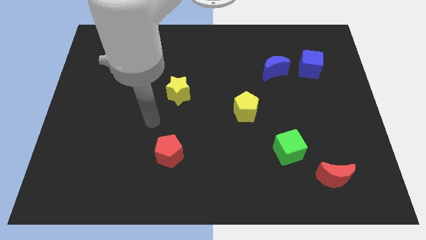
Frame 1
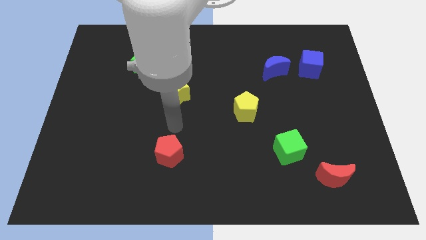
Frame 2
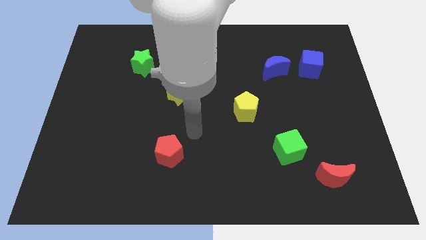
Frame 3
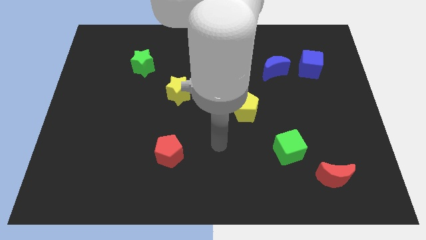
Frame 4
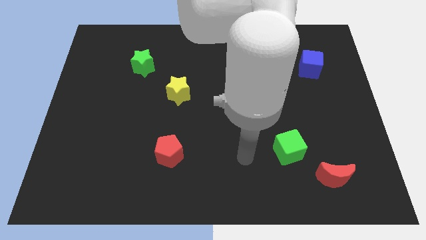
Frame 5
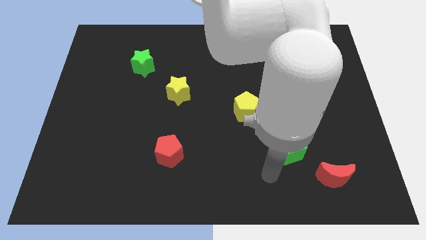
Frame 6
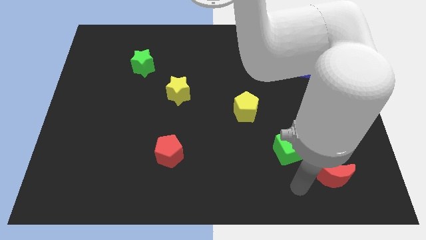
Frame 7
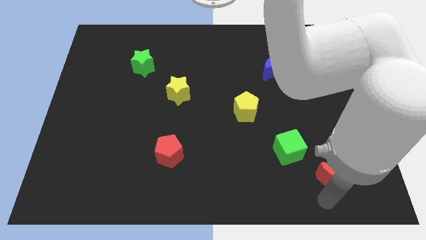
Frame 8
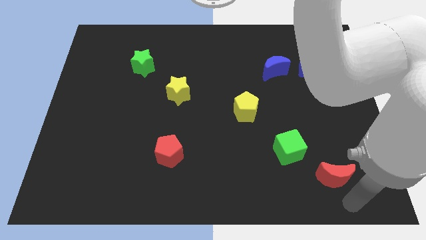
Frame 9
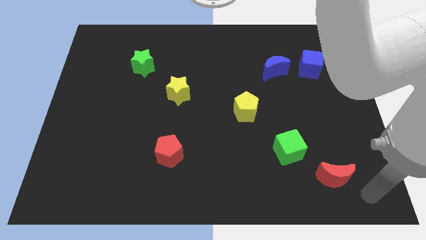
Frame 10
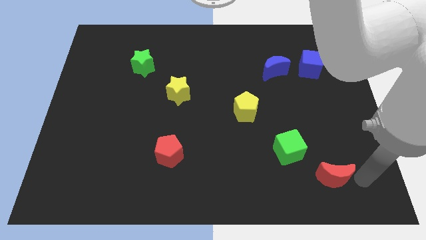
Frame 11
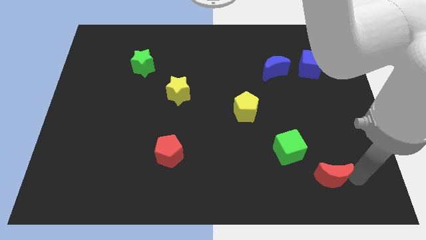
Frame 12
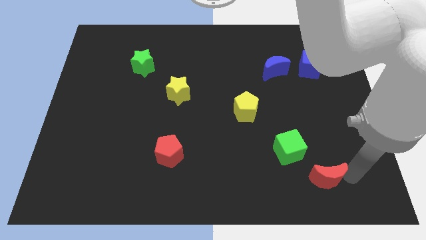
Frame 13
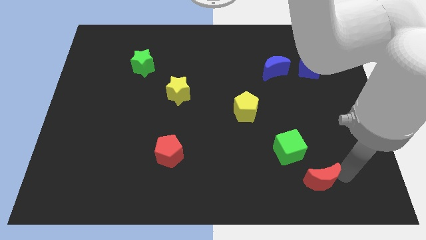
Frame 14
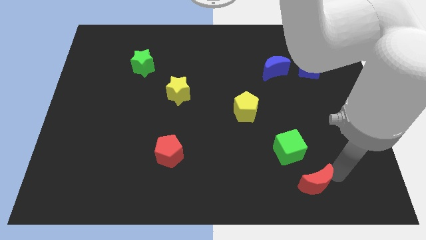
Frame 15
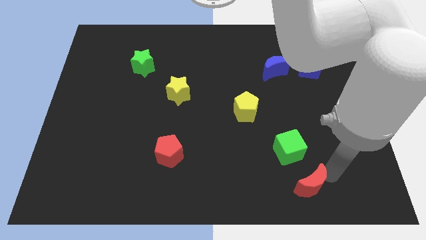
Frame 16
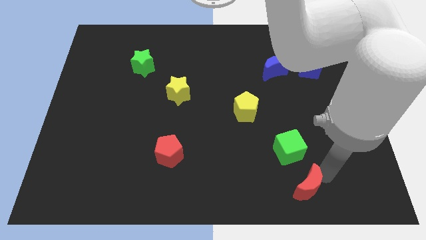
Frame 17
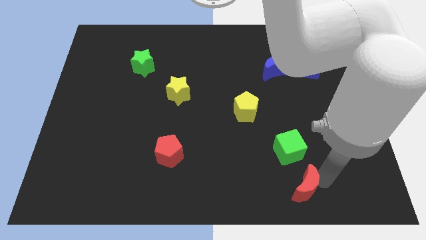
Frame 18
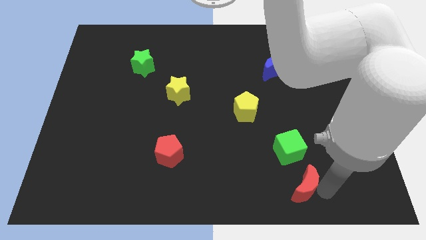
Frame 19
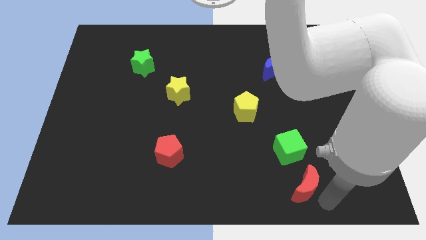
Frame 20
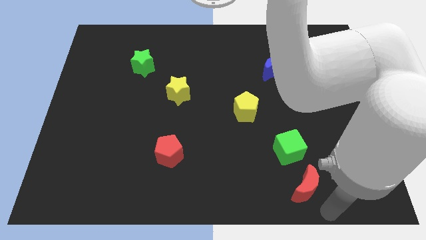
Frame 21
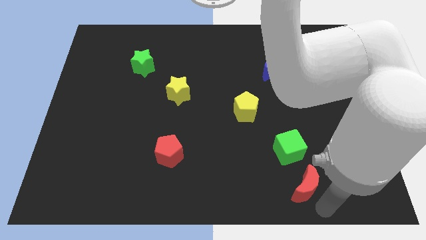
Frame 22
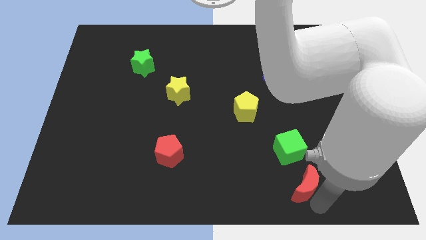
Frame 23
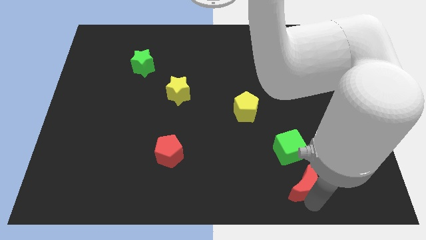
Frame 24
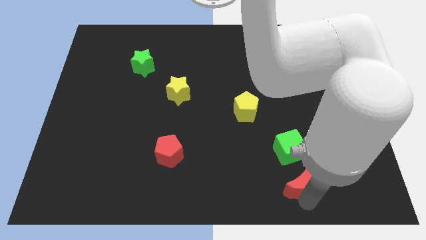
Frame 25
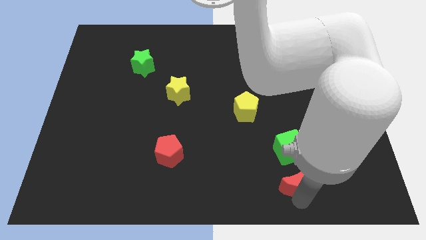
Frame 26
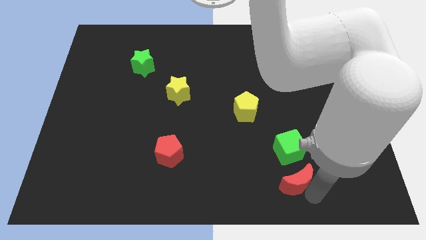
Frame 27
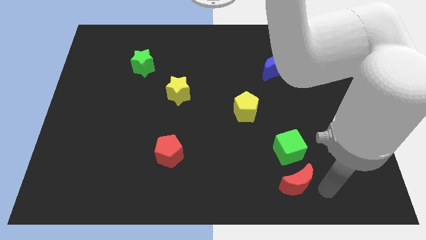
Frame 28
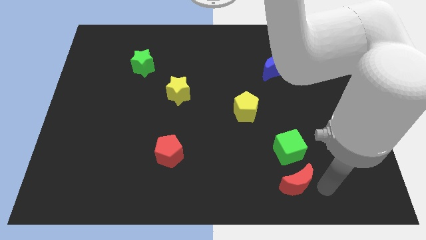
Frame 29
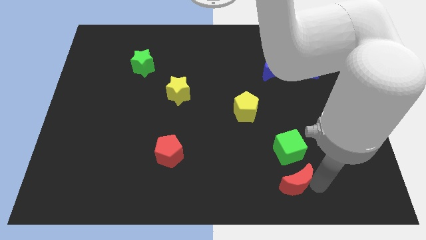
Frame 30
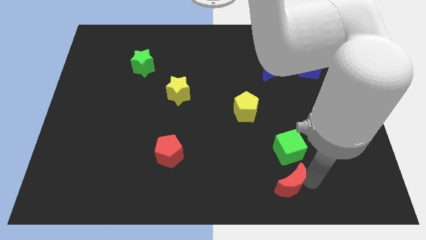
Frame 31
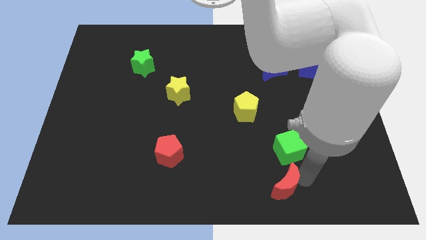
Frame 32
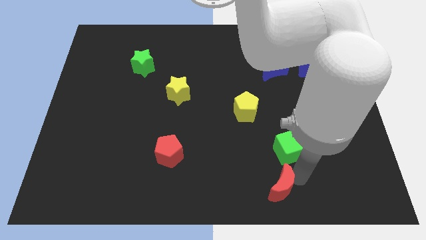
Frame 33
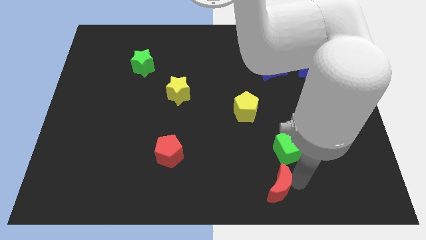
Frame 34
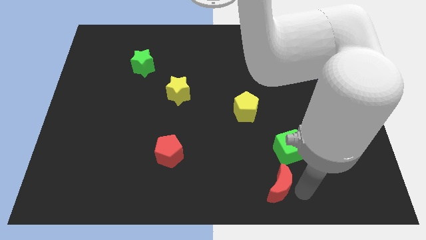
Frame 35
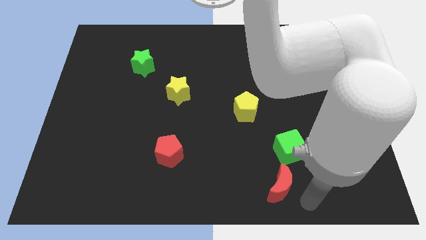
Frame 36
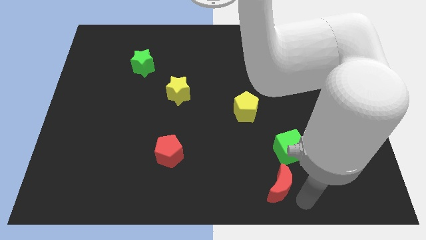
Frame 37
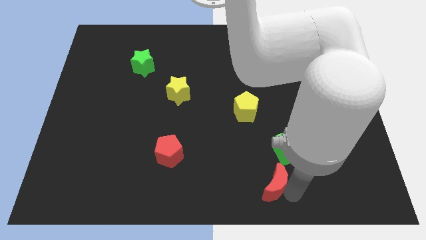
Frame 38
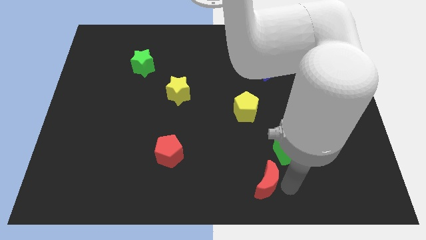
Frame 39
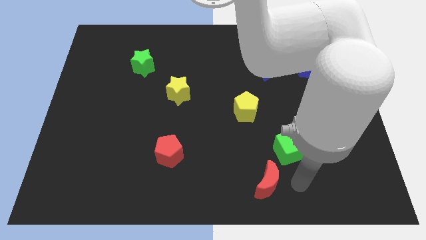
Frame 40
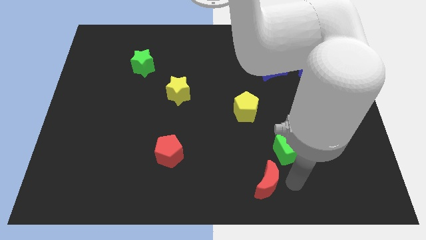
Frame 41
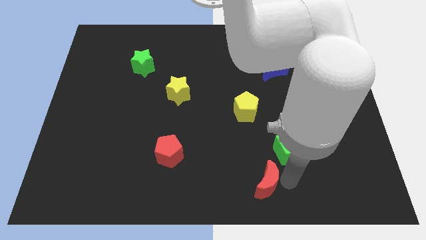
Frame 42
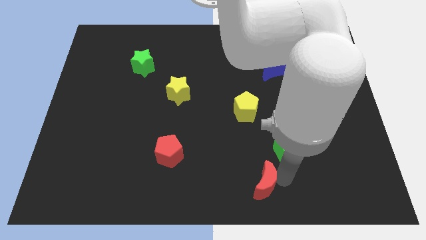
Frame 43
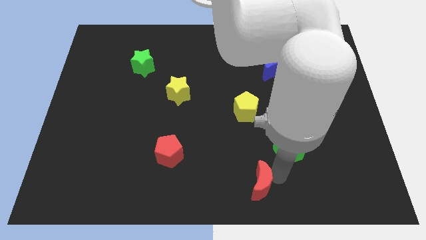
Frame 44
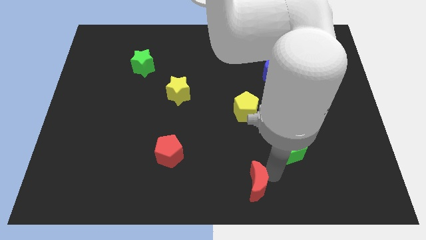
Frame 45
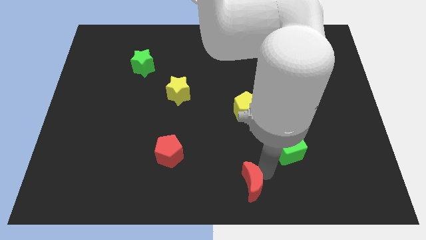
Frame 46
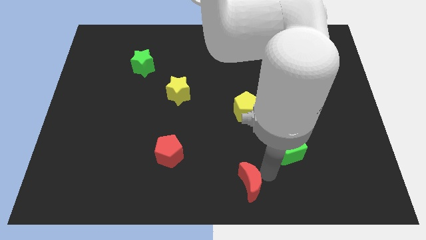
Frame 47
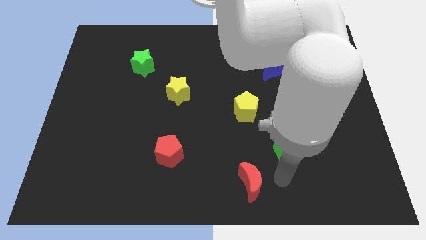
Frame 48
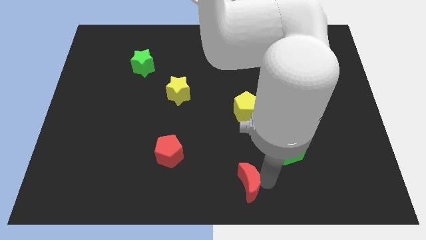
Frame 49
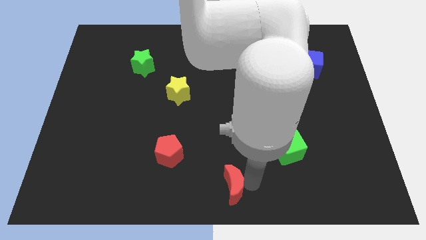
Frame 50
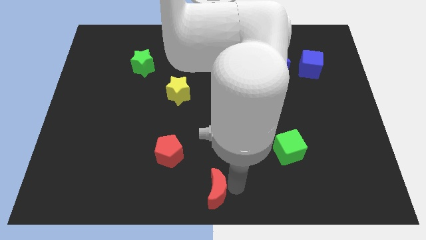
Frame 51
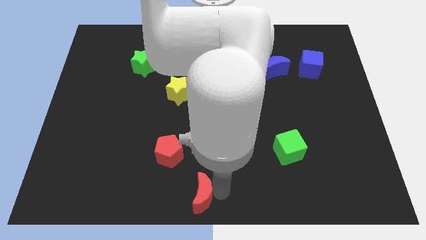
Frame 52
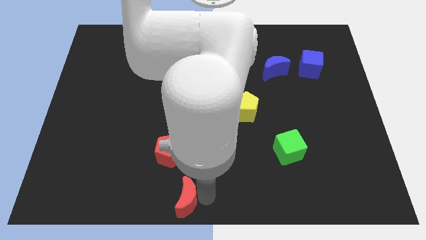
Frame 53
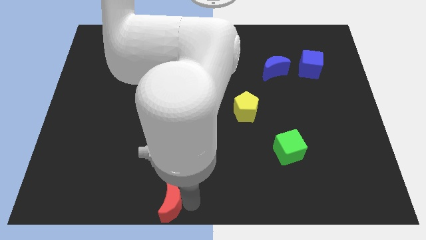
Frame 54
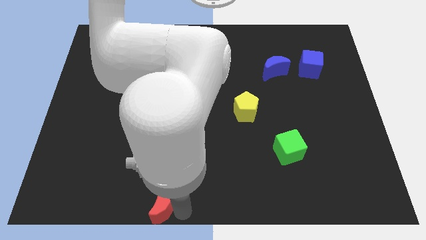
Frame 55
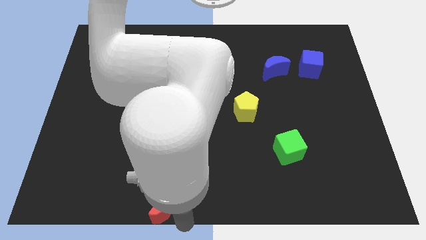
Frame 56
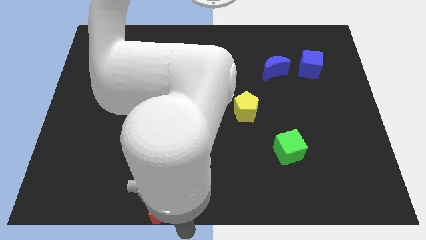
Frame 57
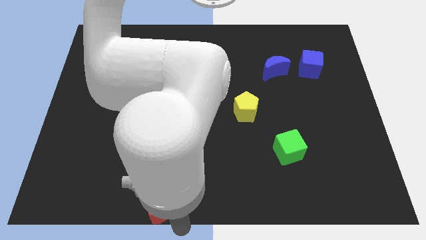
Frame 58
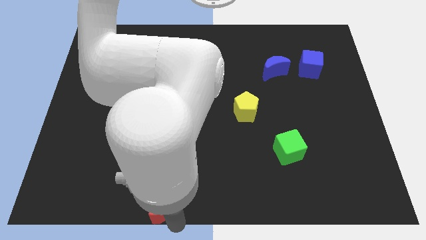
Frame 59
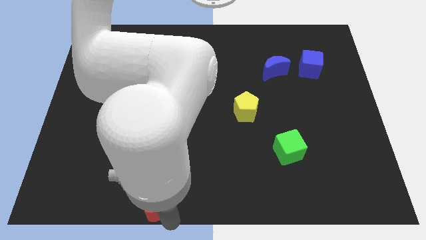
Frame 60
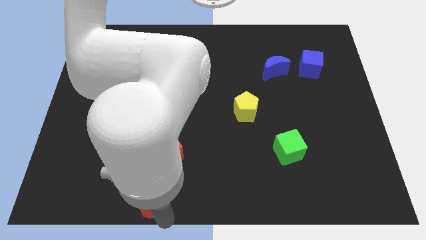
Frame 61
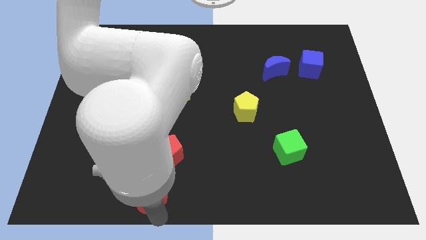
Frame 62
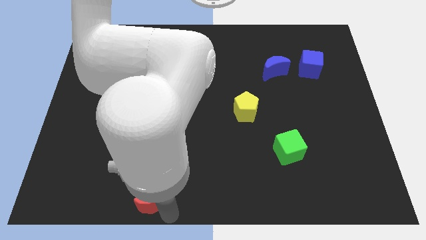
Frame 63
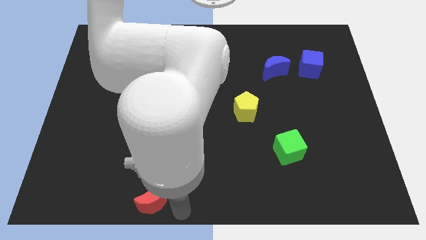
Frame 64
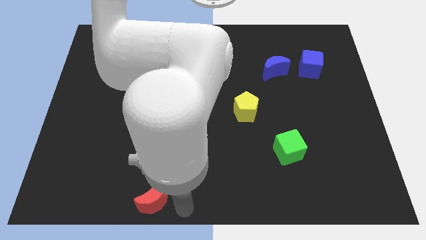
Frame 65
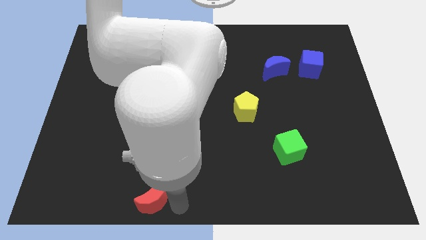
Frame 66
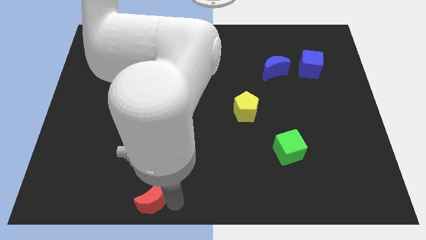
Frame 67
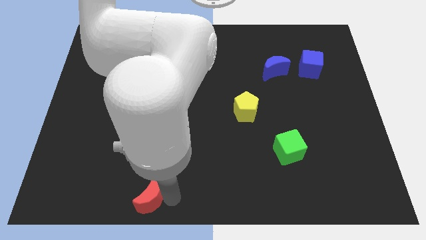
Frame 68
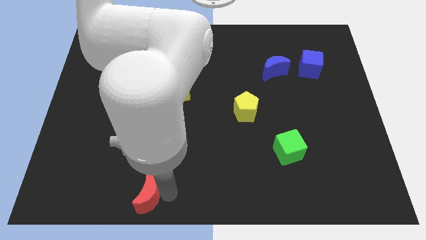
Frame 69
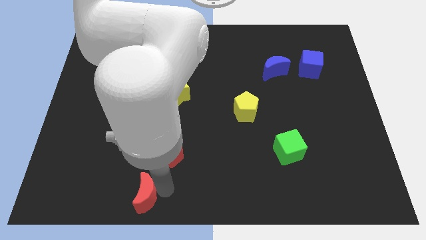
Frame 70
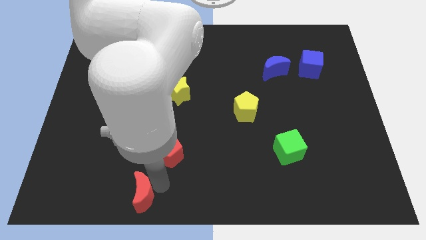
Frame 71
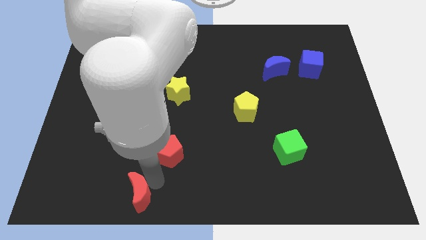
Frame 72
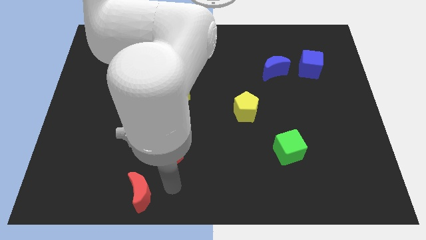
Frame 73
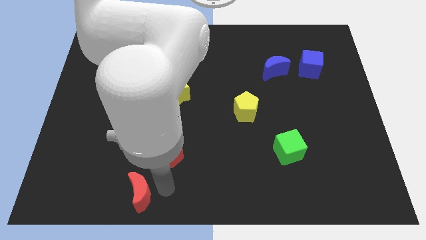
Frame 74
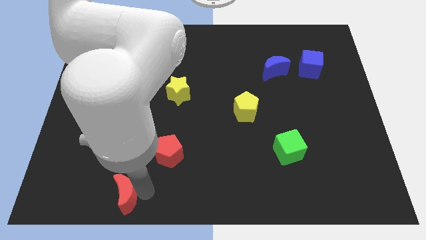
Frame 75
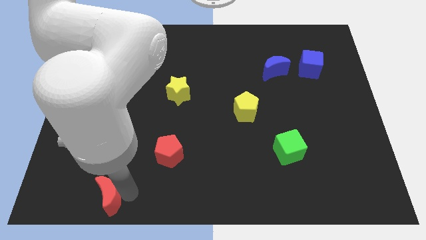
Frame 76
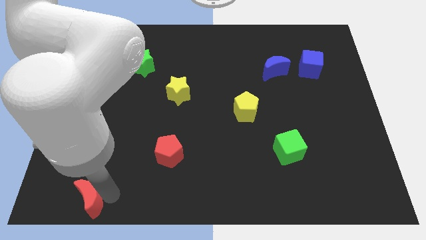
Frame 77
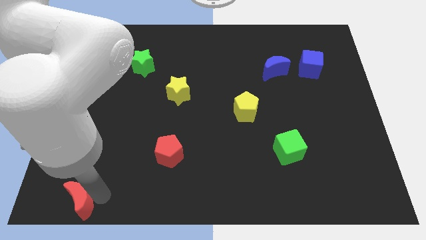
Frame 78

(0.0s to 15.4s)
put the red moon to the bottom left
